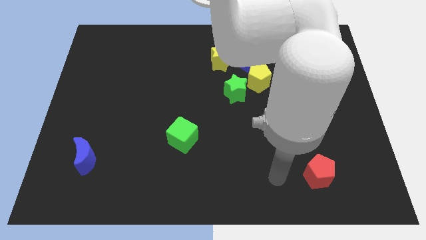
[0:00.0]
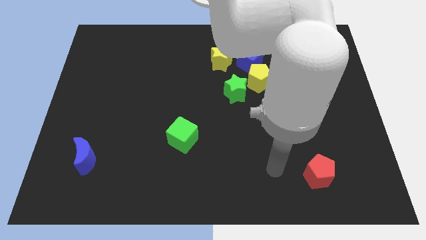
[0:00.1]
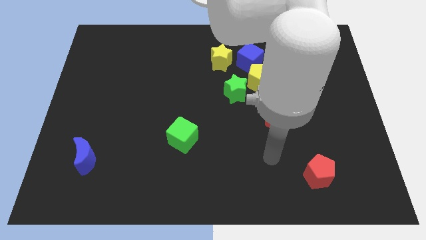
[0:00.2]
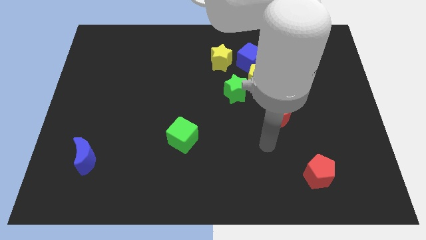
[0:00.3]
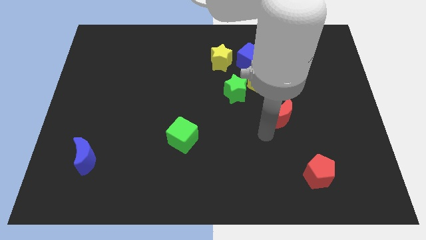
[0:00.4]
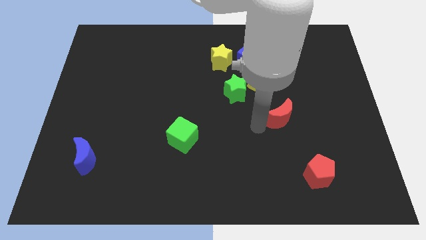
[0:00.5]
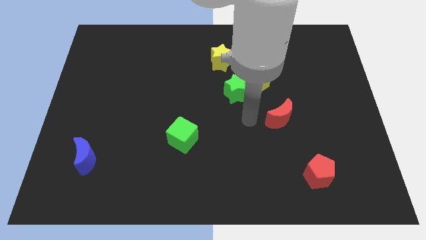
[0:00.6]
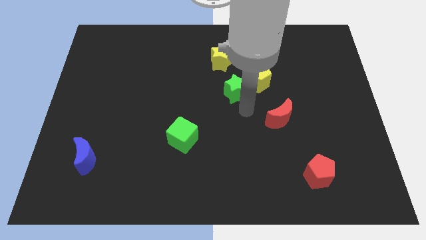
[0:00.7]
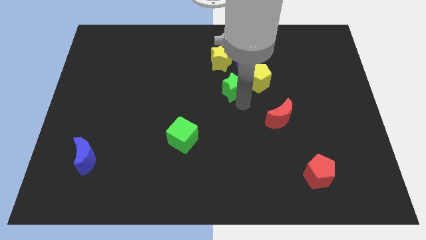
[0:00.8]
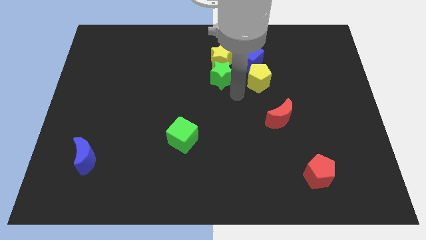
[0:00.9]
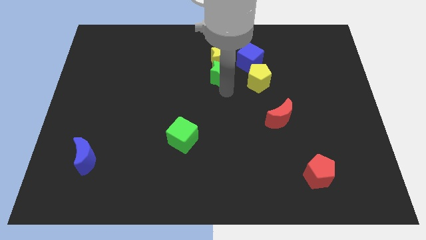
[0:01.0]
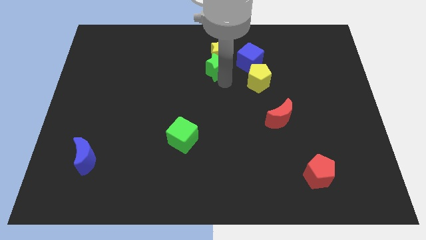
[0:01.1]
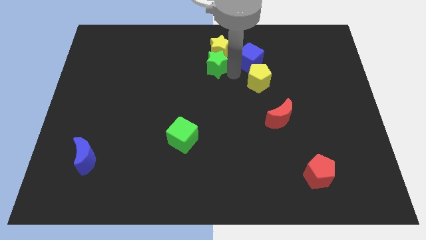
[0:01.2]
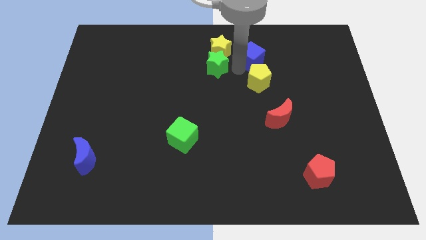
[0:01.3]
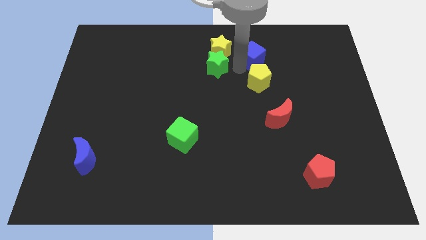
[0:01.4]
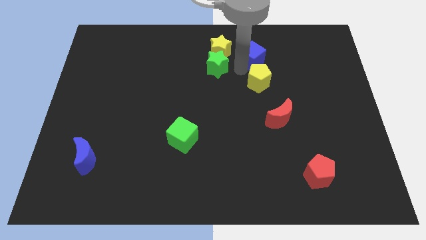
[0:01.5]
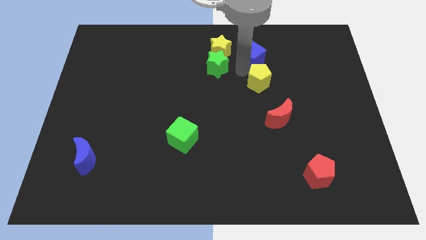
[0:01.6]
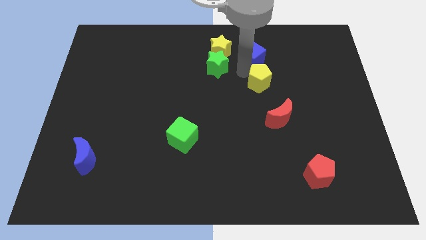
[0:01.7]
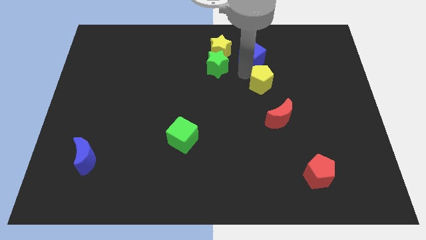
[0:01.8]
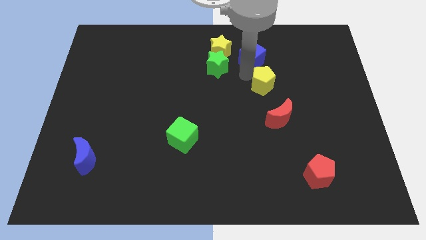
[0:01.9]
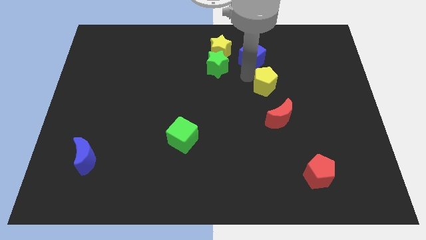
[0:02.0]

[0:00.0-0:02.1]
pull the yellow pentagon apart from the blue cube and green star

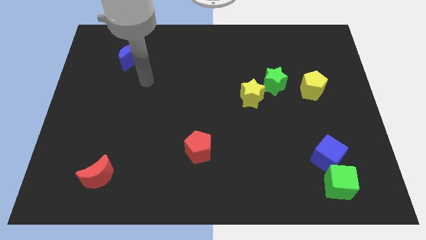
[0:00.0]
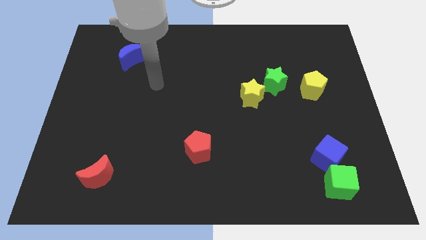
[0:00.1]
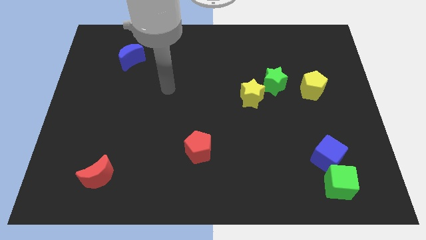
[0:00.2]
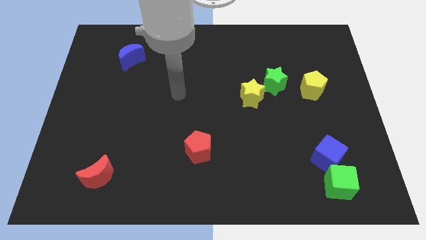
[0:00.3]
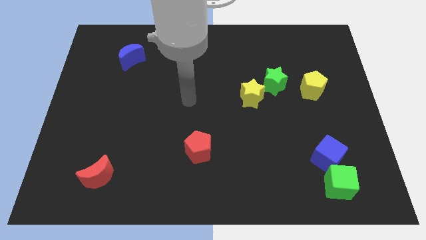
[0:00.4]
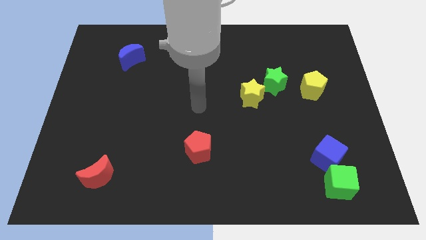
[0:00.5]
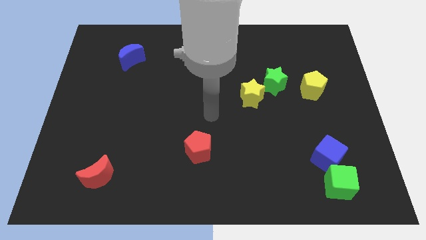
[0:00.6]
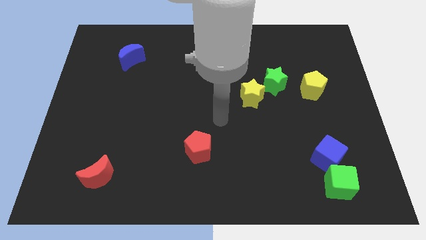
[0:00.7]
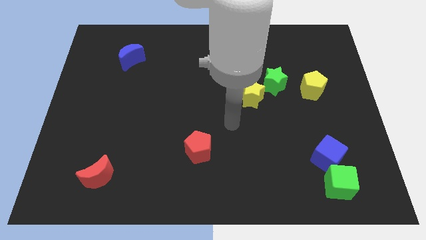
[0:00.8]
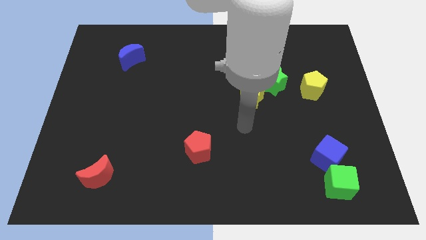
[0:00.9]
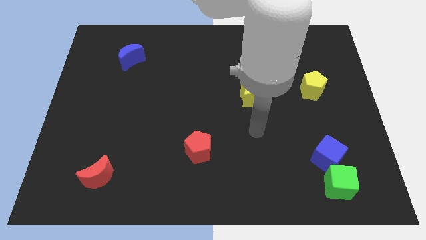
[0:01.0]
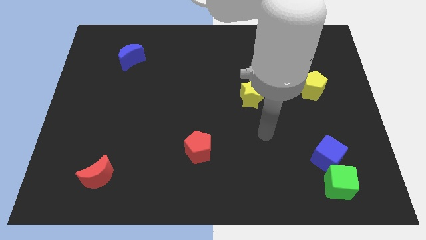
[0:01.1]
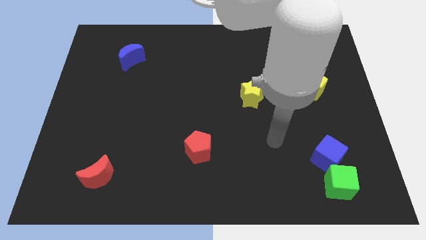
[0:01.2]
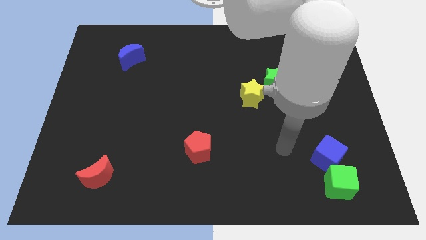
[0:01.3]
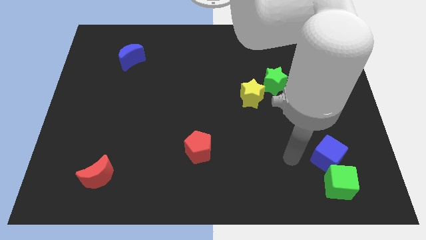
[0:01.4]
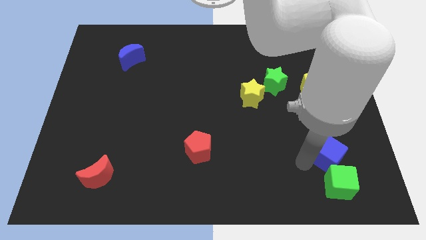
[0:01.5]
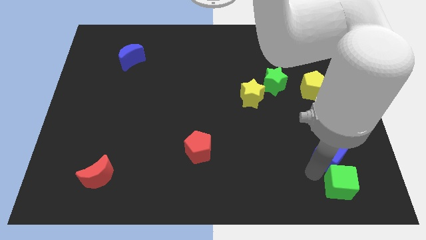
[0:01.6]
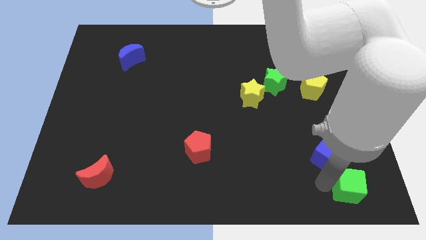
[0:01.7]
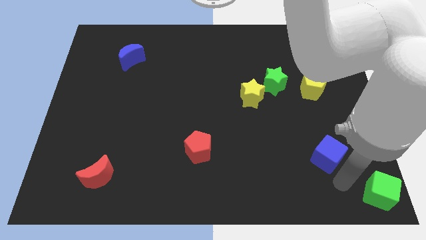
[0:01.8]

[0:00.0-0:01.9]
move the blue cube away from the green cube

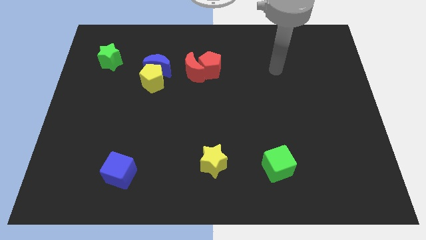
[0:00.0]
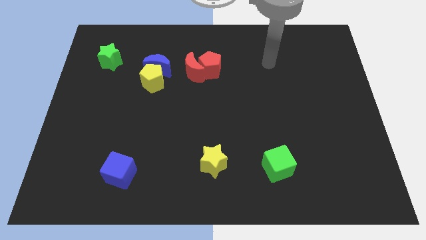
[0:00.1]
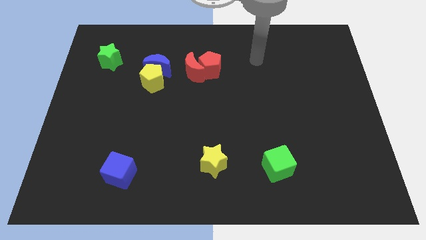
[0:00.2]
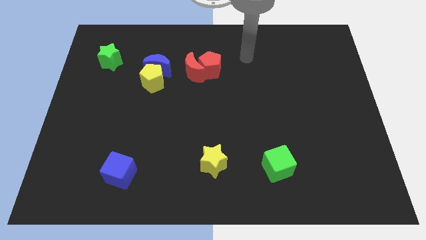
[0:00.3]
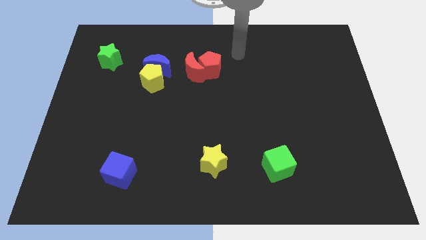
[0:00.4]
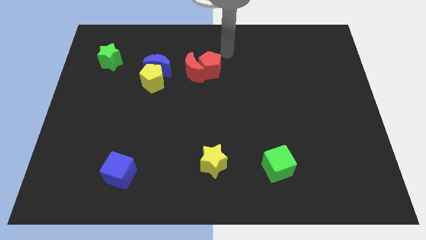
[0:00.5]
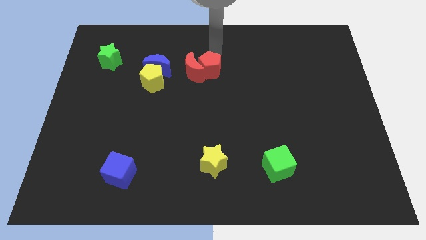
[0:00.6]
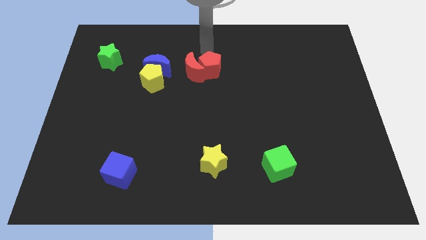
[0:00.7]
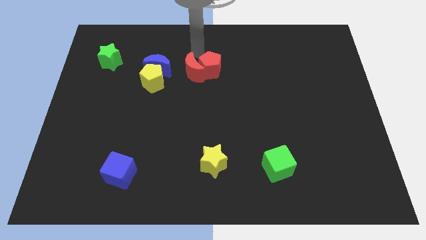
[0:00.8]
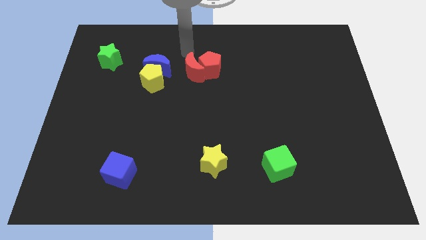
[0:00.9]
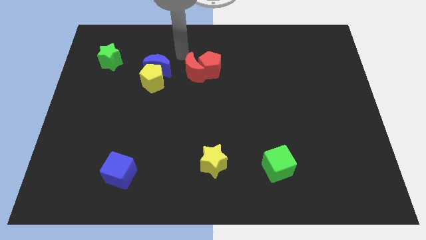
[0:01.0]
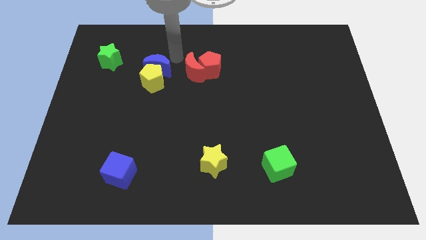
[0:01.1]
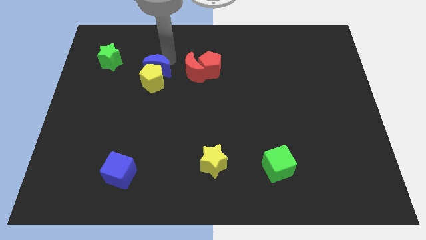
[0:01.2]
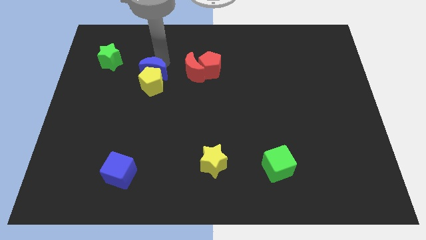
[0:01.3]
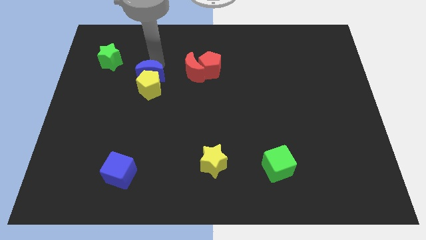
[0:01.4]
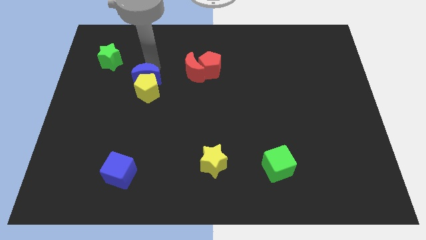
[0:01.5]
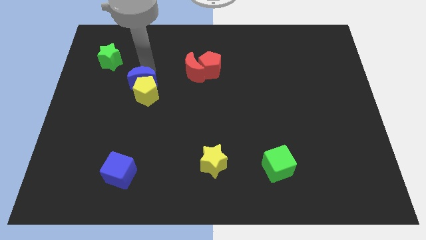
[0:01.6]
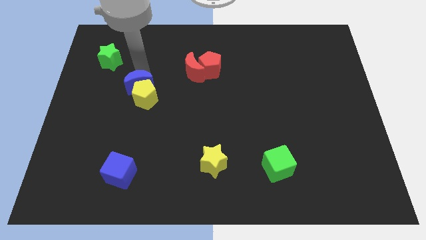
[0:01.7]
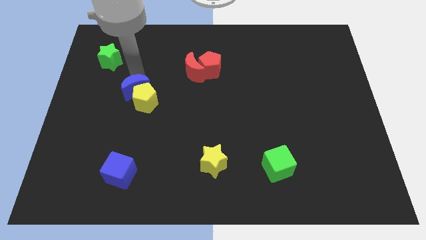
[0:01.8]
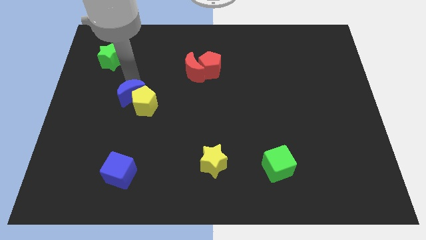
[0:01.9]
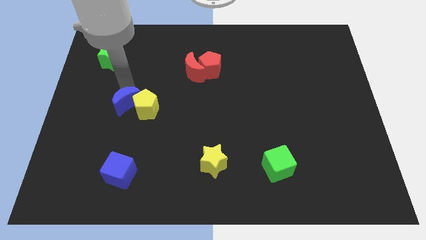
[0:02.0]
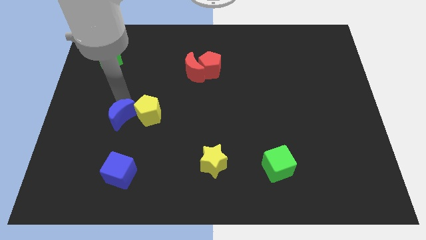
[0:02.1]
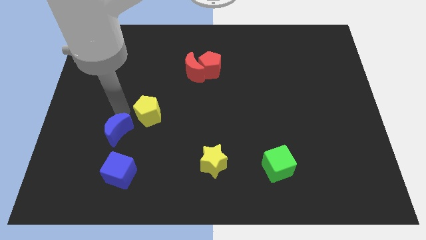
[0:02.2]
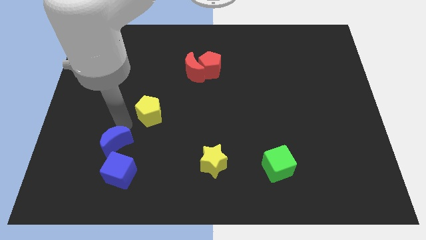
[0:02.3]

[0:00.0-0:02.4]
separate the yellow pentagon from the blue moon

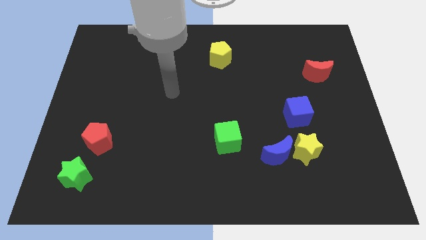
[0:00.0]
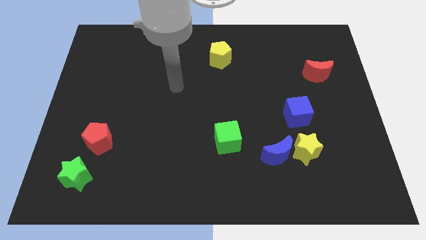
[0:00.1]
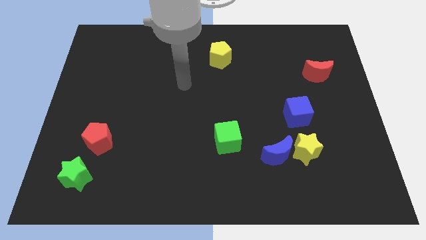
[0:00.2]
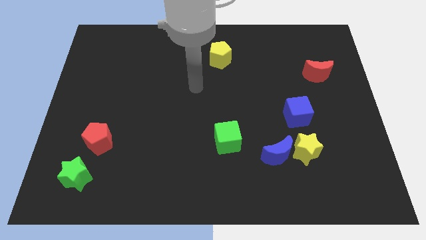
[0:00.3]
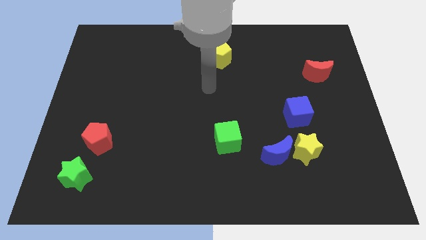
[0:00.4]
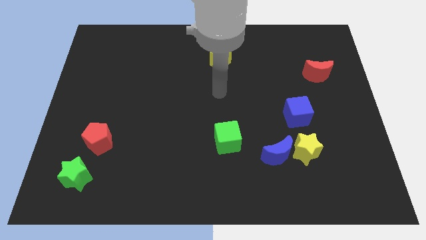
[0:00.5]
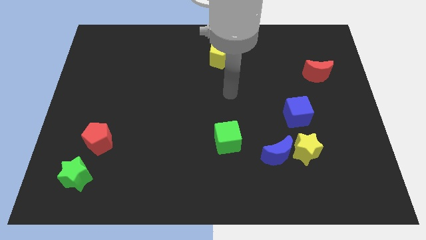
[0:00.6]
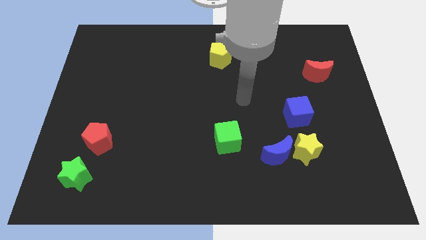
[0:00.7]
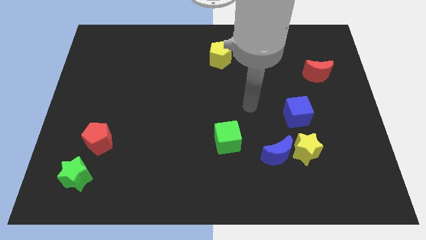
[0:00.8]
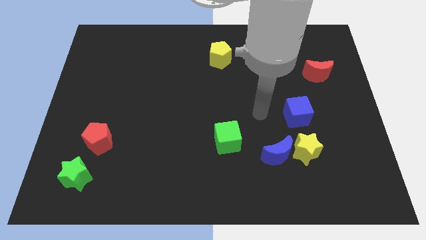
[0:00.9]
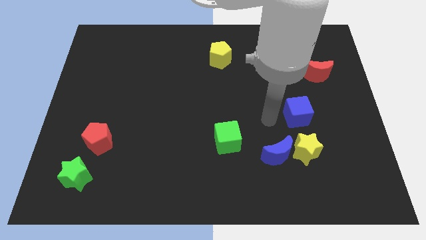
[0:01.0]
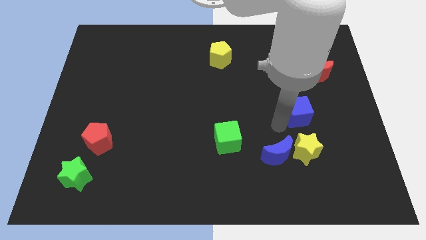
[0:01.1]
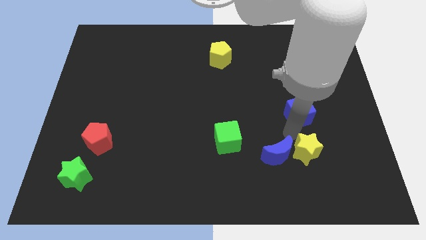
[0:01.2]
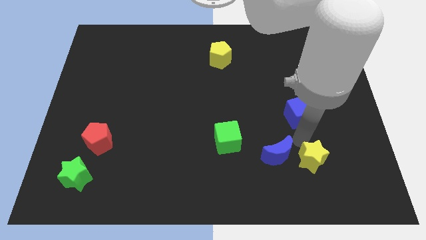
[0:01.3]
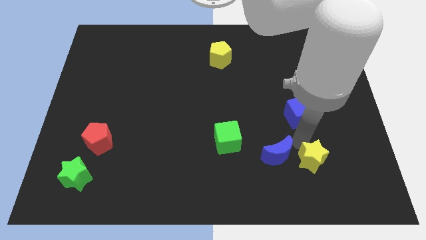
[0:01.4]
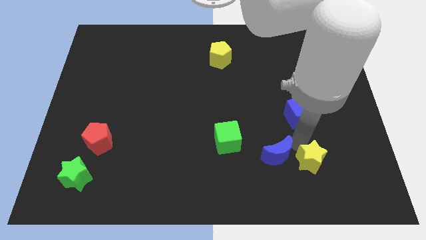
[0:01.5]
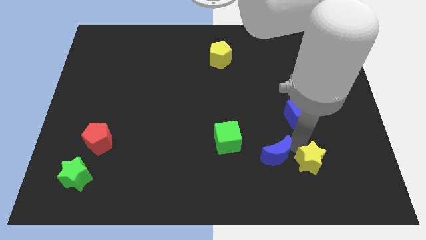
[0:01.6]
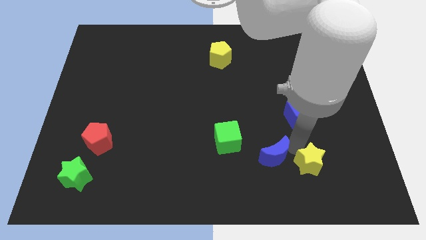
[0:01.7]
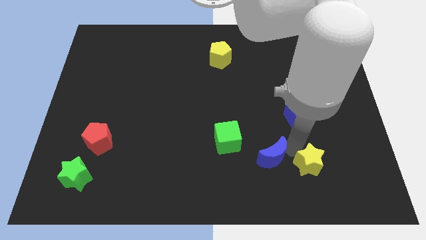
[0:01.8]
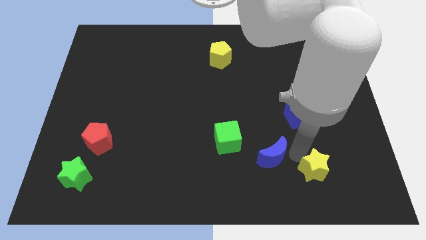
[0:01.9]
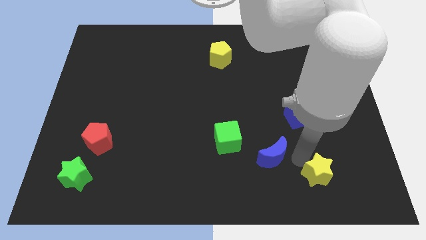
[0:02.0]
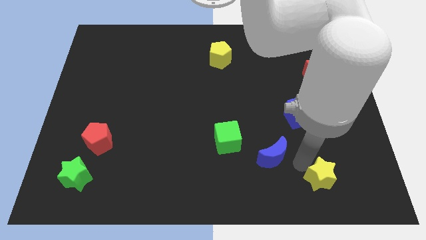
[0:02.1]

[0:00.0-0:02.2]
pull the blue moon apart from the yellow star

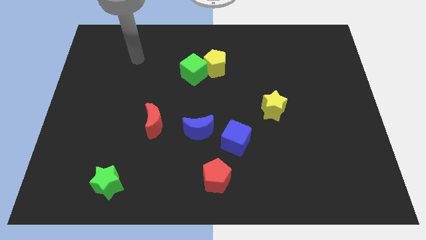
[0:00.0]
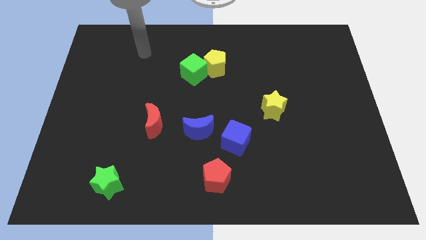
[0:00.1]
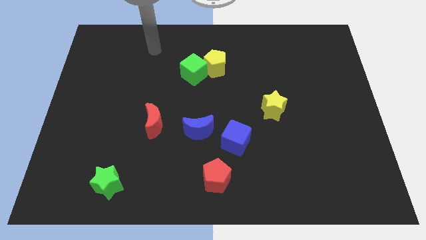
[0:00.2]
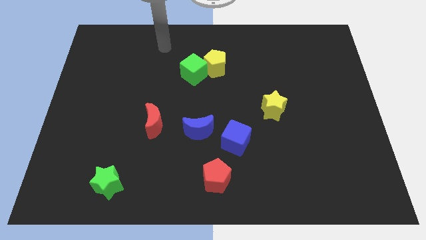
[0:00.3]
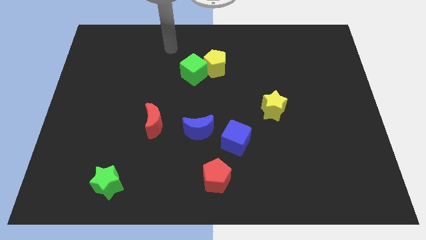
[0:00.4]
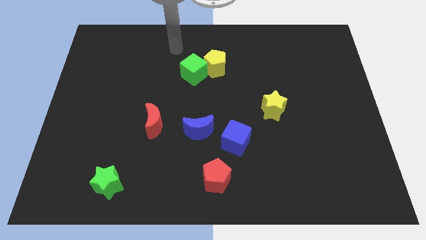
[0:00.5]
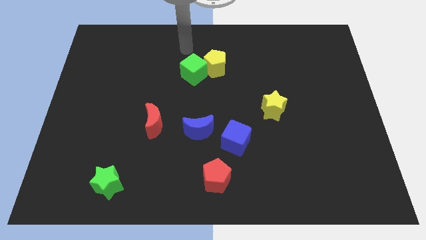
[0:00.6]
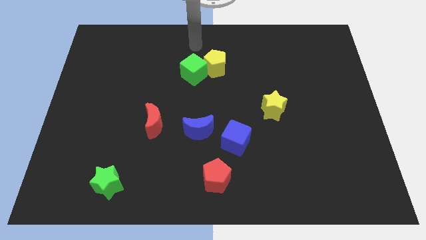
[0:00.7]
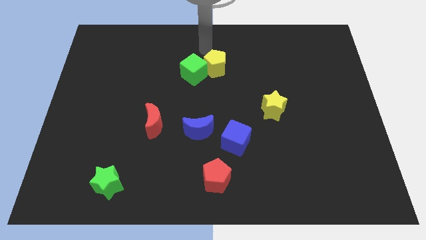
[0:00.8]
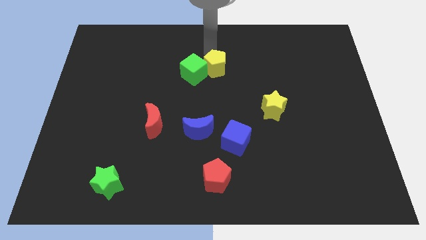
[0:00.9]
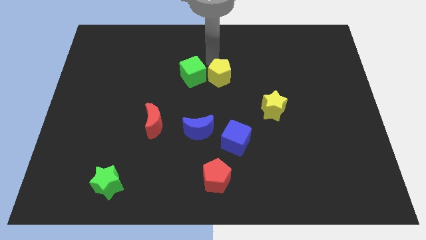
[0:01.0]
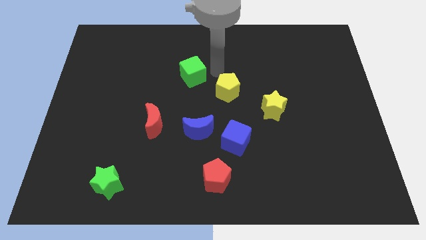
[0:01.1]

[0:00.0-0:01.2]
pull the green cube apart from the yellow pentagon
